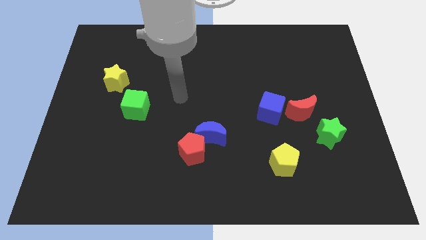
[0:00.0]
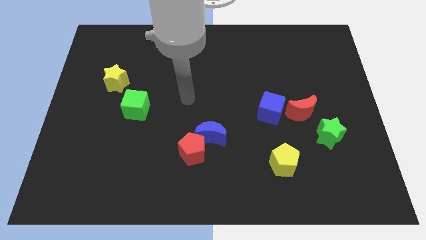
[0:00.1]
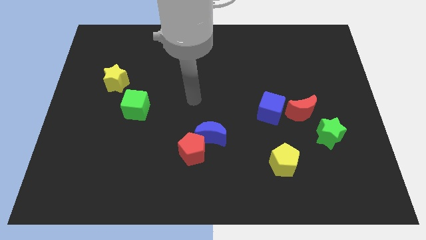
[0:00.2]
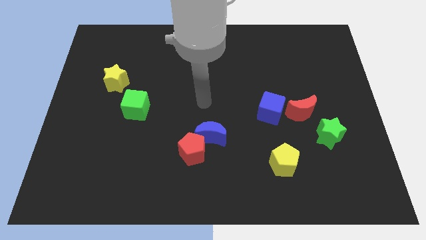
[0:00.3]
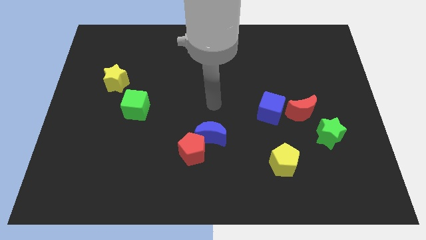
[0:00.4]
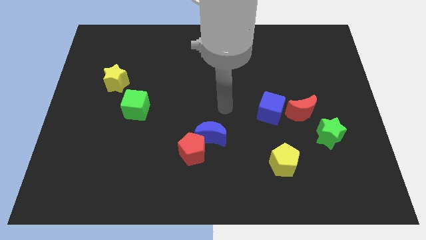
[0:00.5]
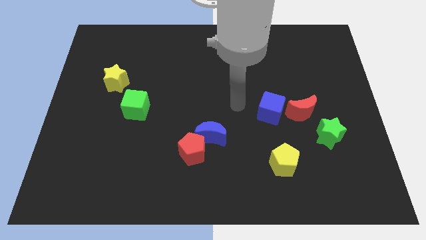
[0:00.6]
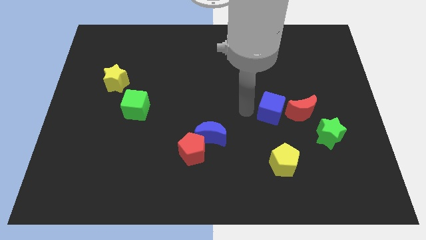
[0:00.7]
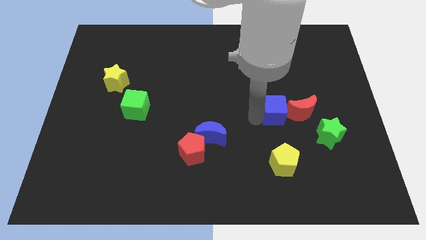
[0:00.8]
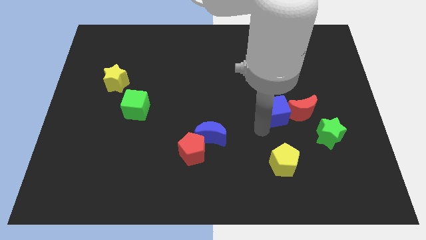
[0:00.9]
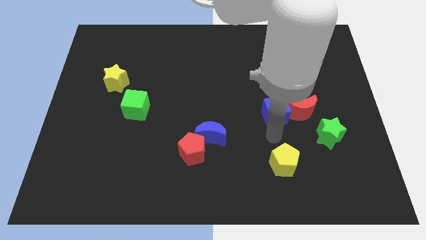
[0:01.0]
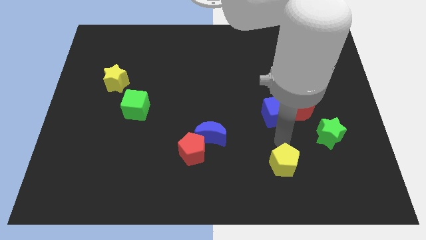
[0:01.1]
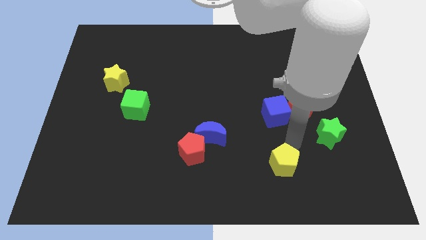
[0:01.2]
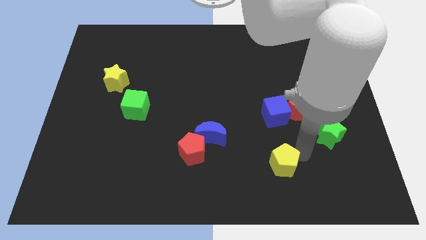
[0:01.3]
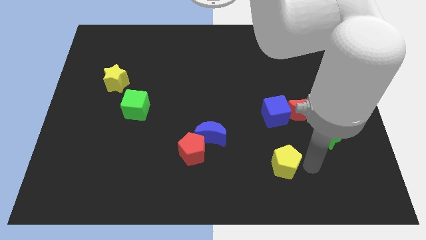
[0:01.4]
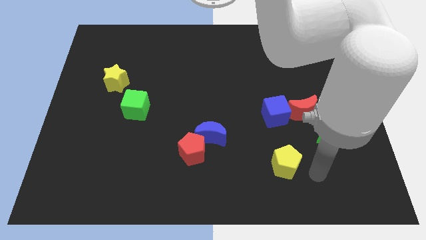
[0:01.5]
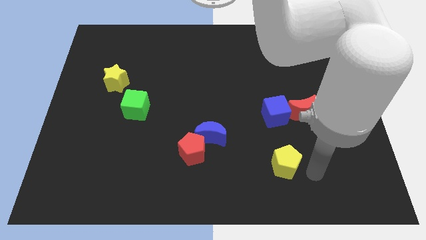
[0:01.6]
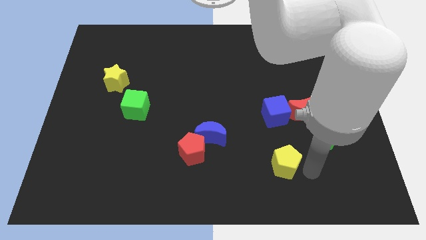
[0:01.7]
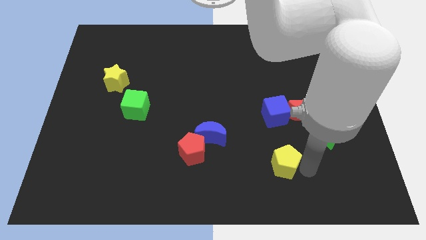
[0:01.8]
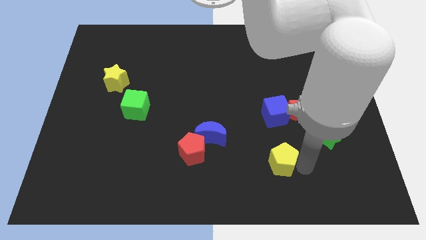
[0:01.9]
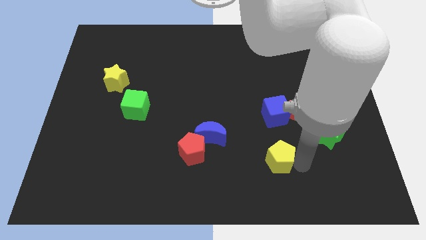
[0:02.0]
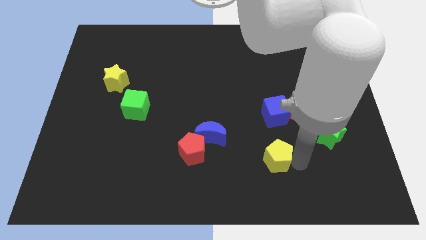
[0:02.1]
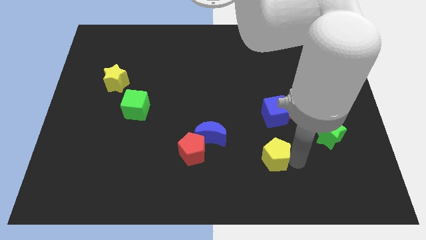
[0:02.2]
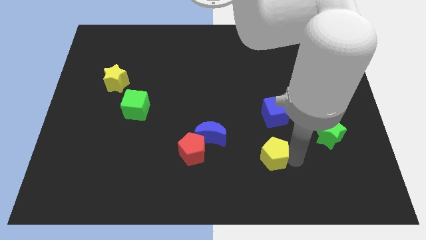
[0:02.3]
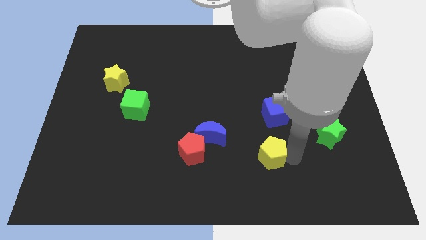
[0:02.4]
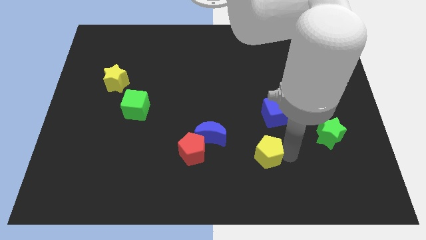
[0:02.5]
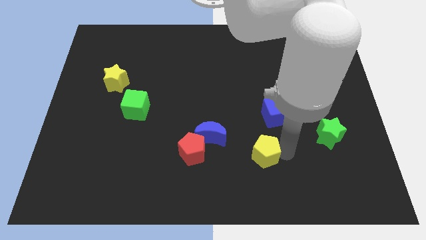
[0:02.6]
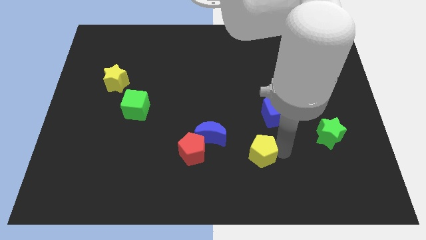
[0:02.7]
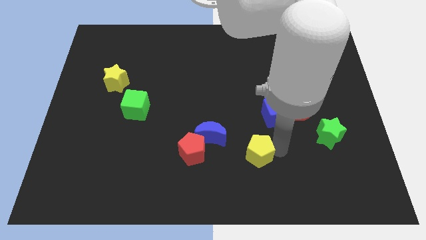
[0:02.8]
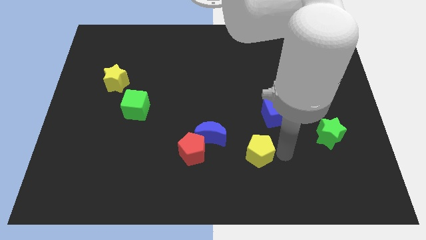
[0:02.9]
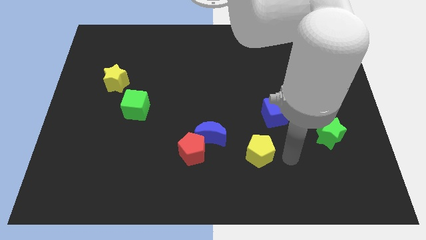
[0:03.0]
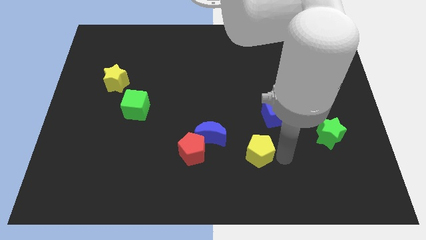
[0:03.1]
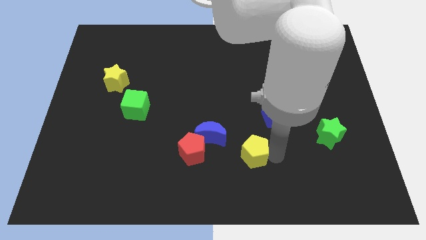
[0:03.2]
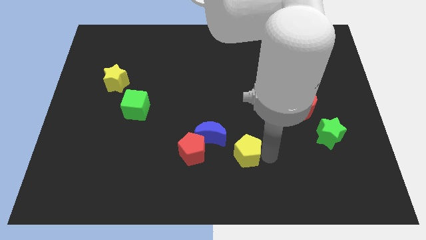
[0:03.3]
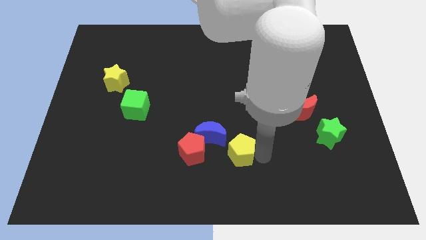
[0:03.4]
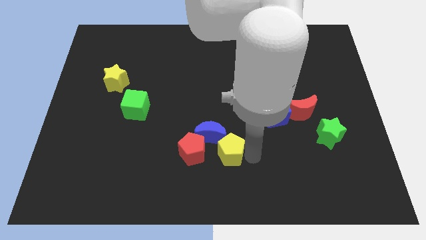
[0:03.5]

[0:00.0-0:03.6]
put the yellow pentagon towards the blue moon

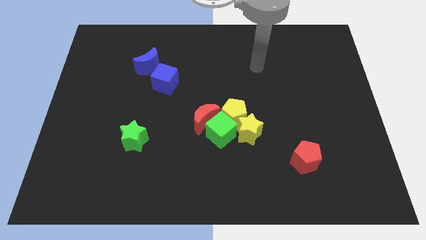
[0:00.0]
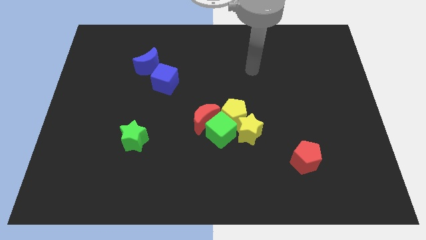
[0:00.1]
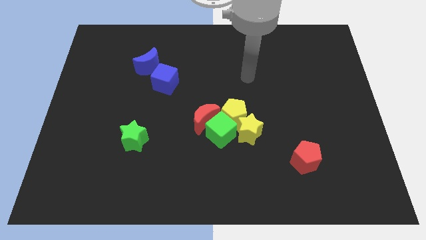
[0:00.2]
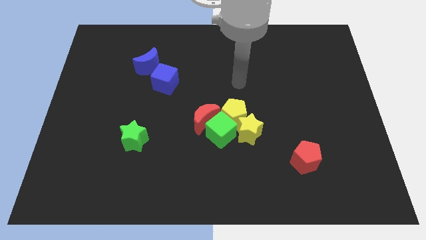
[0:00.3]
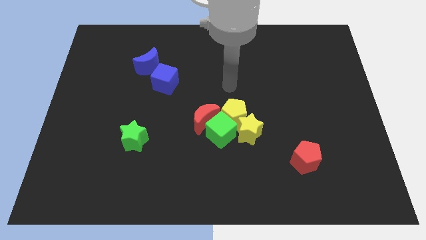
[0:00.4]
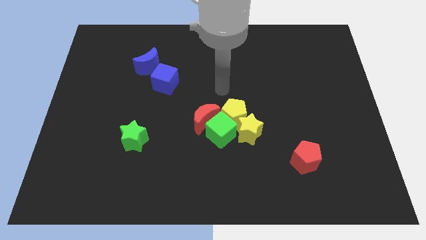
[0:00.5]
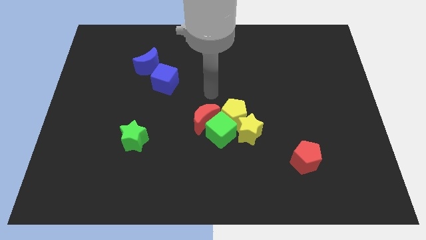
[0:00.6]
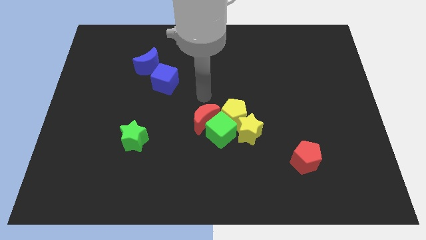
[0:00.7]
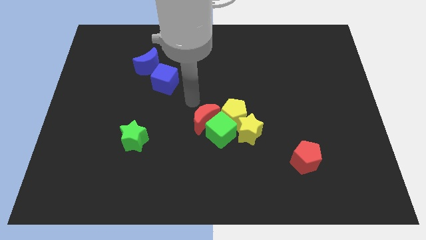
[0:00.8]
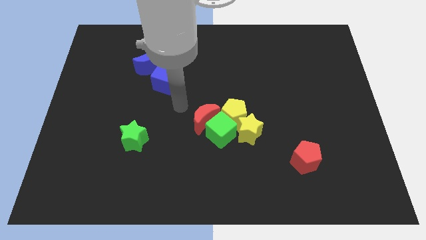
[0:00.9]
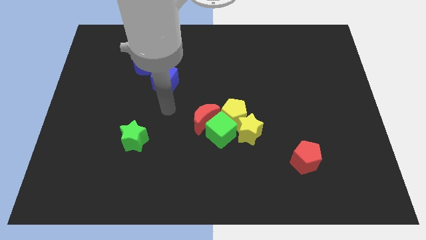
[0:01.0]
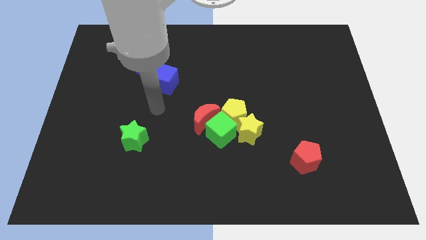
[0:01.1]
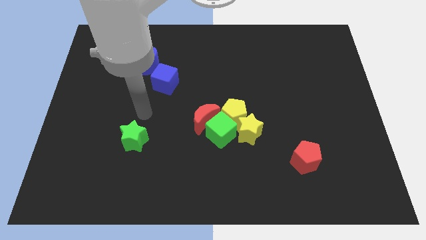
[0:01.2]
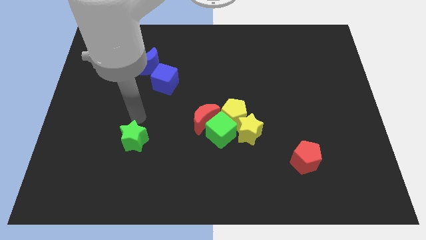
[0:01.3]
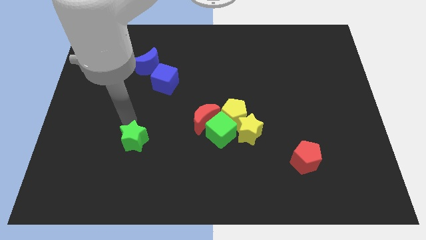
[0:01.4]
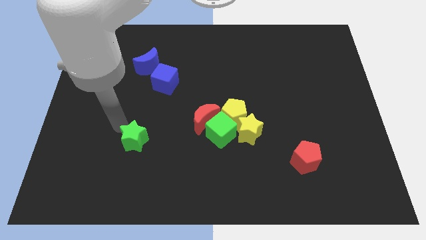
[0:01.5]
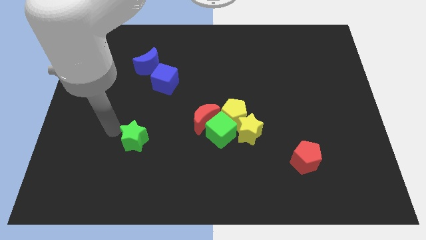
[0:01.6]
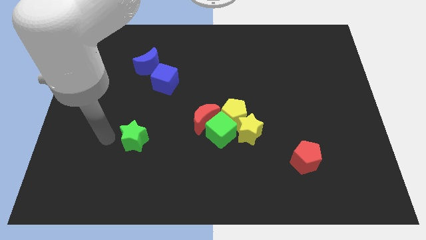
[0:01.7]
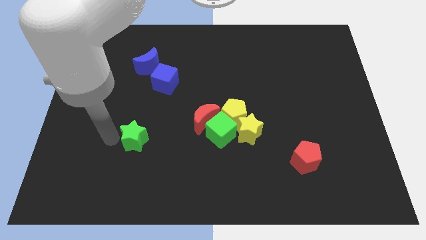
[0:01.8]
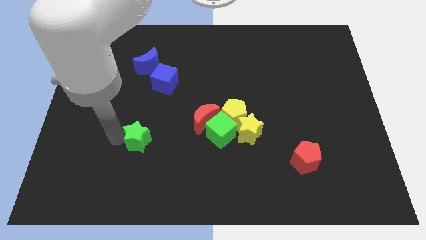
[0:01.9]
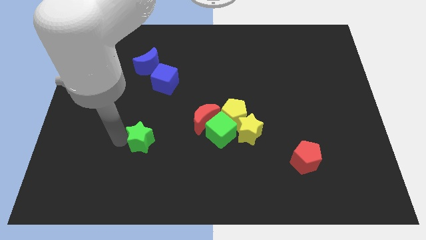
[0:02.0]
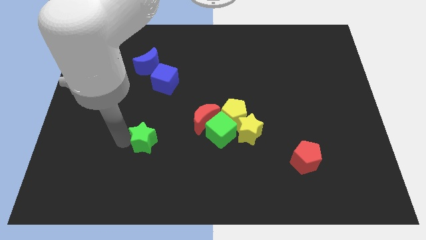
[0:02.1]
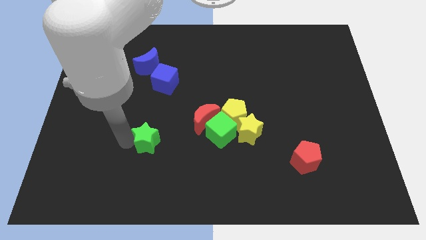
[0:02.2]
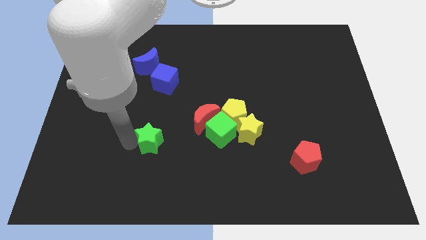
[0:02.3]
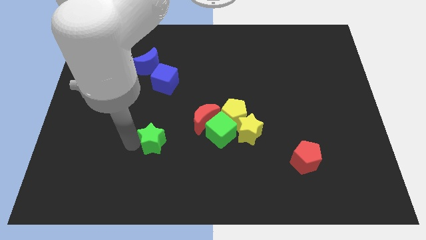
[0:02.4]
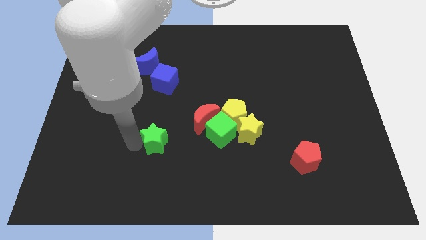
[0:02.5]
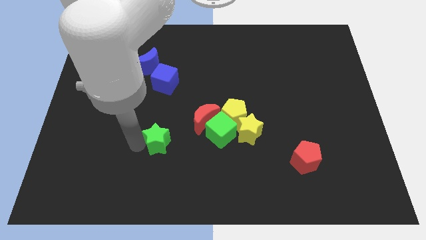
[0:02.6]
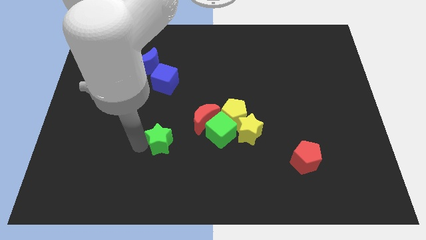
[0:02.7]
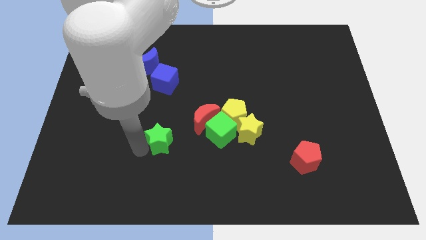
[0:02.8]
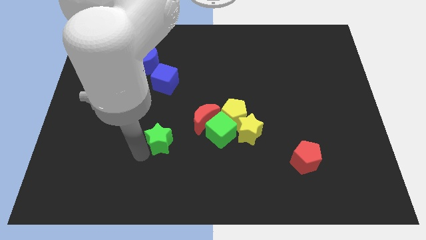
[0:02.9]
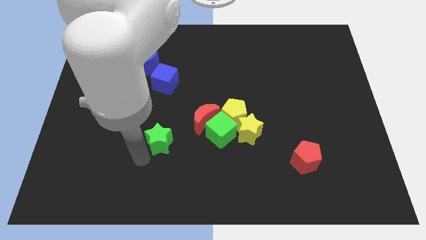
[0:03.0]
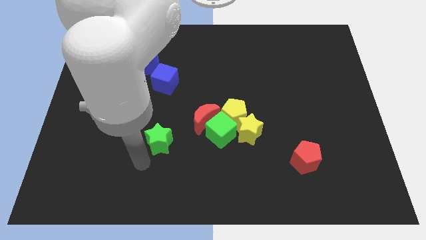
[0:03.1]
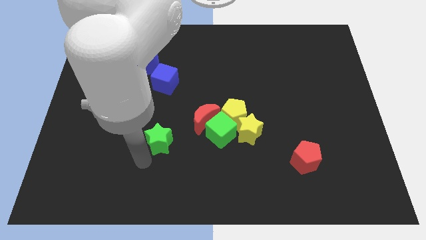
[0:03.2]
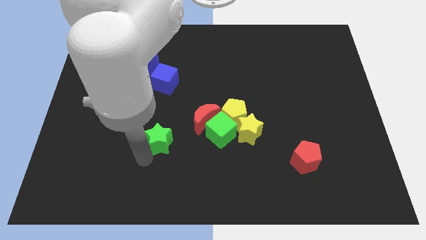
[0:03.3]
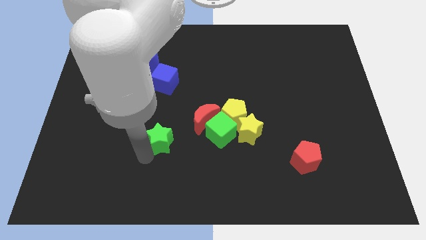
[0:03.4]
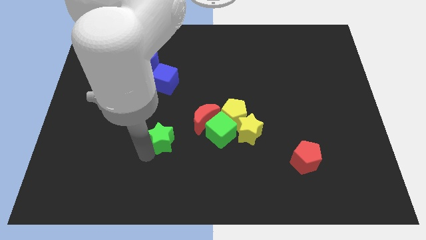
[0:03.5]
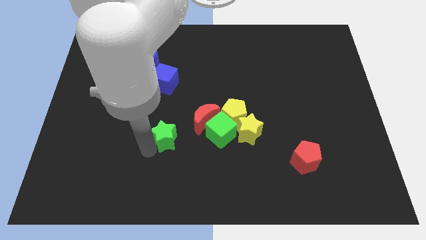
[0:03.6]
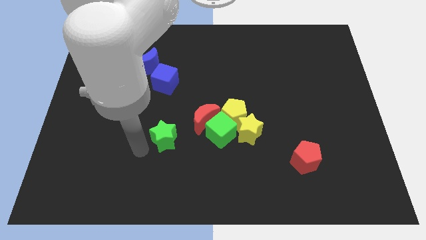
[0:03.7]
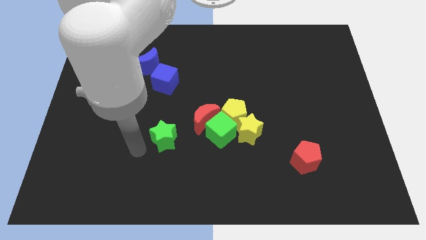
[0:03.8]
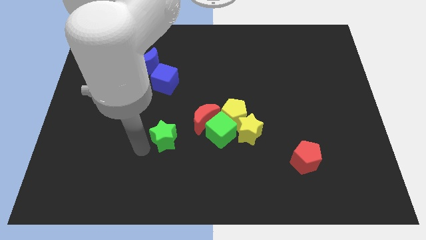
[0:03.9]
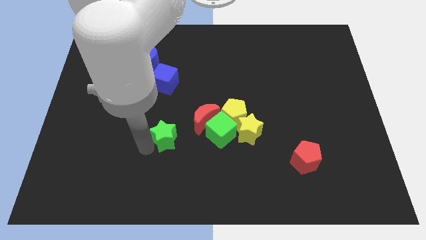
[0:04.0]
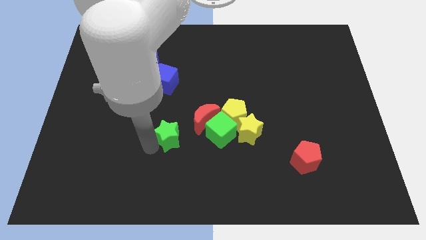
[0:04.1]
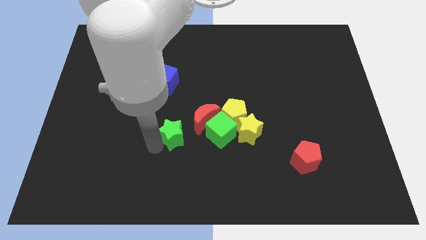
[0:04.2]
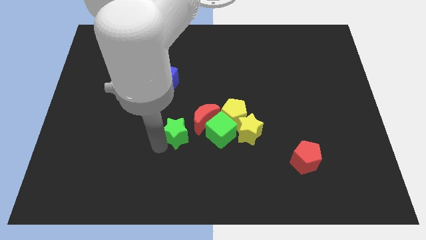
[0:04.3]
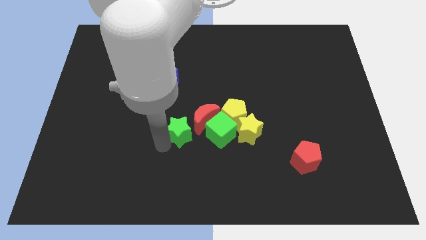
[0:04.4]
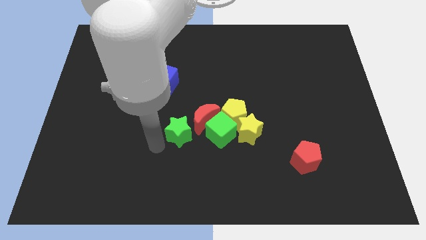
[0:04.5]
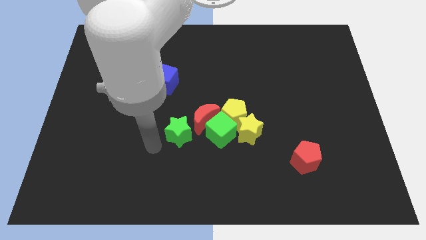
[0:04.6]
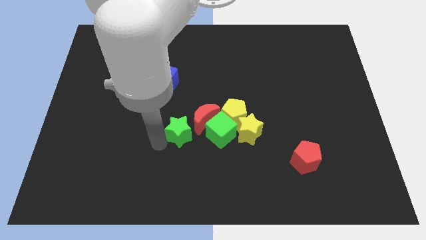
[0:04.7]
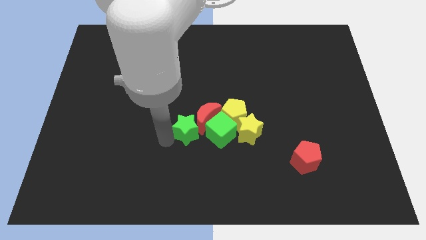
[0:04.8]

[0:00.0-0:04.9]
slide the green star close to the red moon

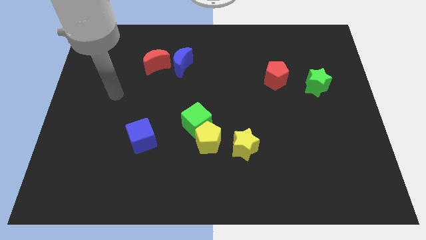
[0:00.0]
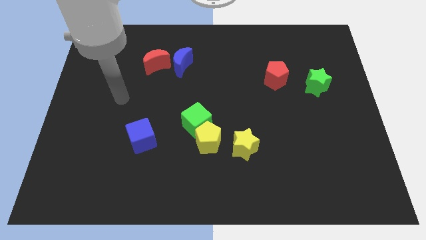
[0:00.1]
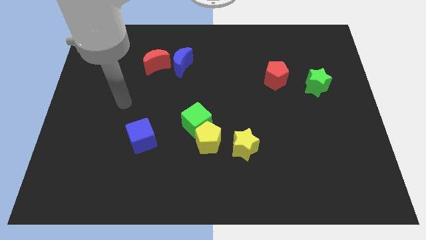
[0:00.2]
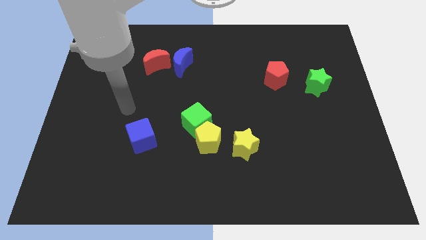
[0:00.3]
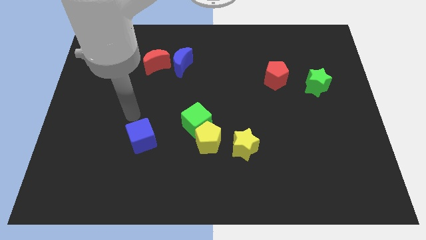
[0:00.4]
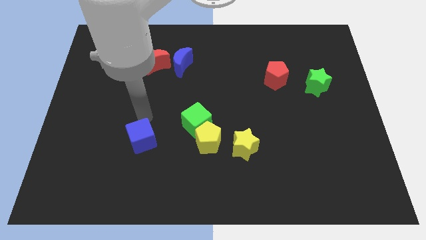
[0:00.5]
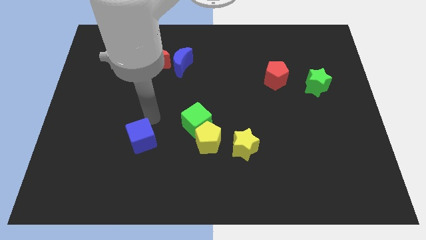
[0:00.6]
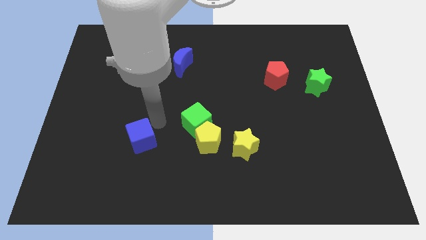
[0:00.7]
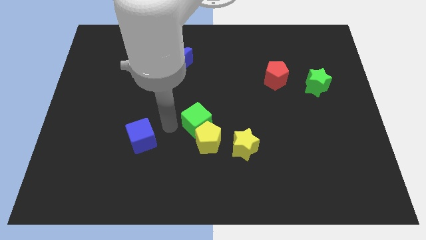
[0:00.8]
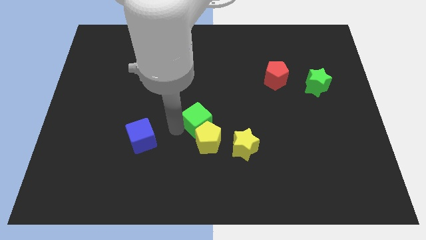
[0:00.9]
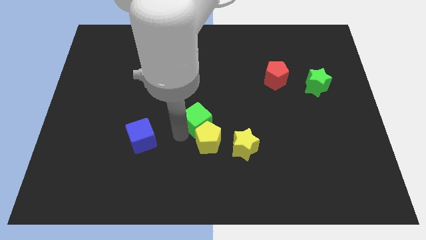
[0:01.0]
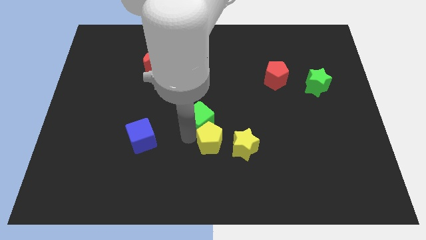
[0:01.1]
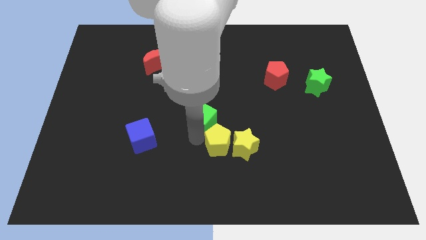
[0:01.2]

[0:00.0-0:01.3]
push the yellow pentagon towards the yellow star
